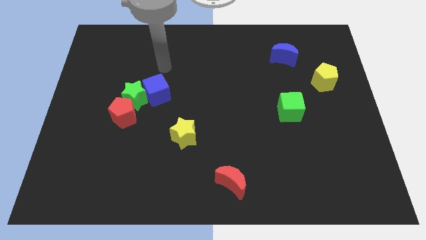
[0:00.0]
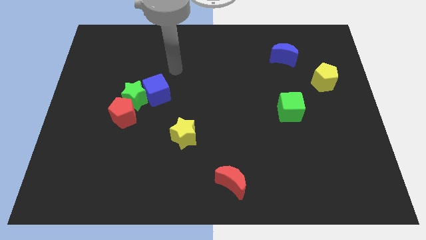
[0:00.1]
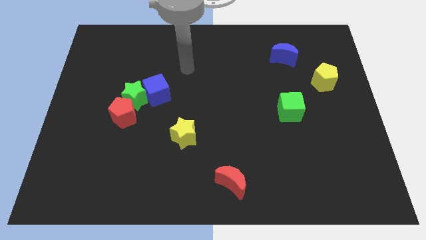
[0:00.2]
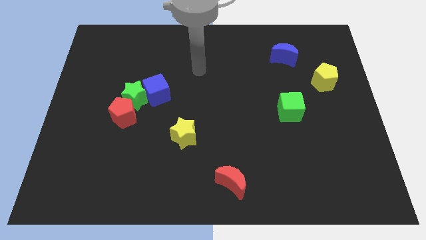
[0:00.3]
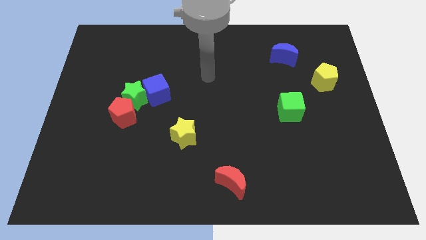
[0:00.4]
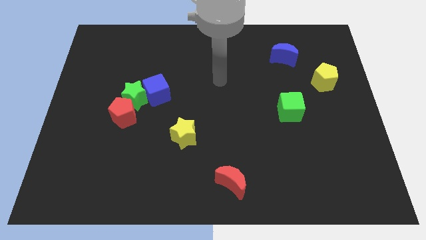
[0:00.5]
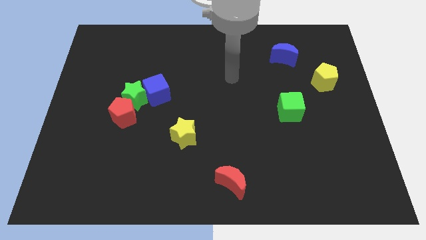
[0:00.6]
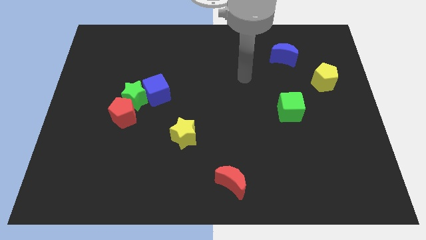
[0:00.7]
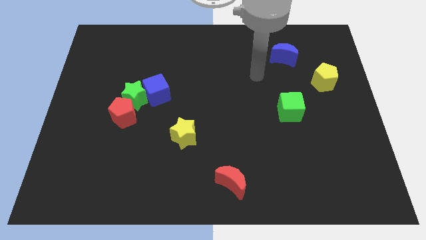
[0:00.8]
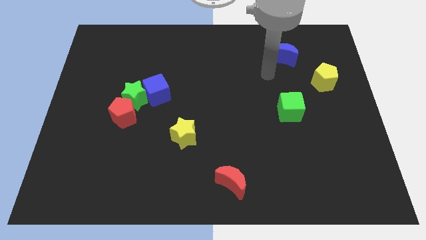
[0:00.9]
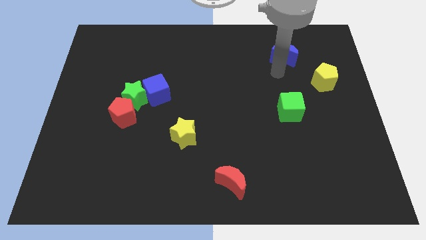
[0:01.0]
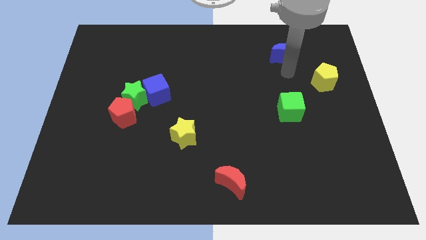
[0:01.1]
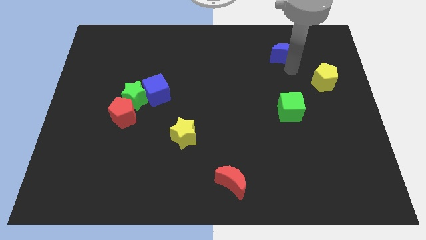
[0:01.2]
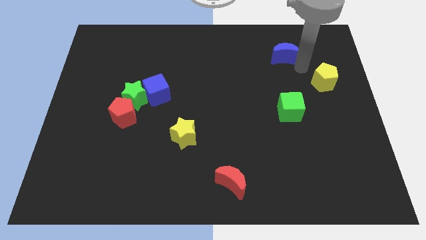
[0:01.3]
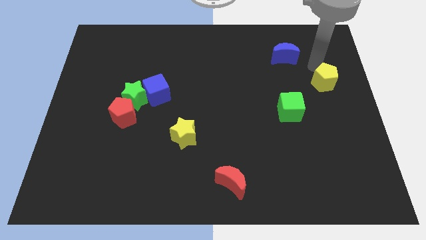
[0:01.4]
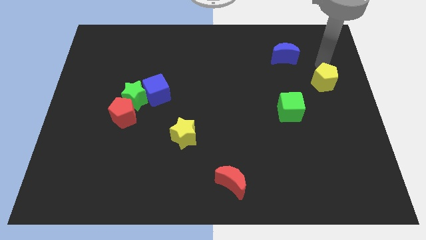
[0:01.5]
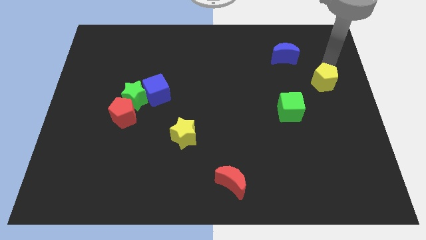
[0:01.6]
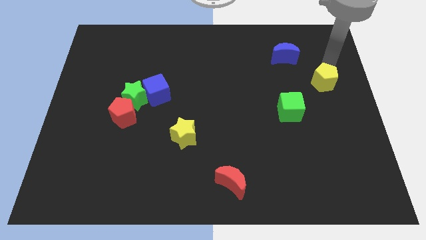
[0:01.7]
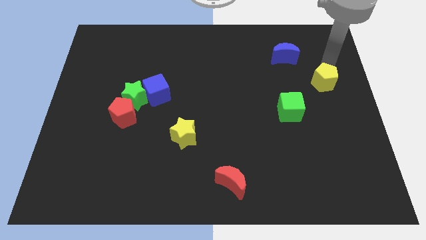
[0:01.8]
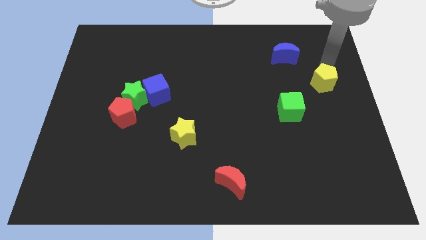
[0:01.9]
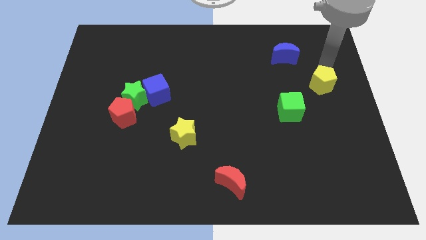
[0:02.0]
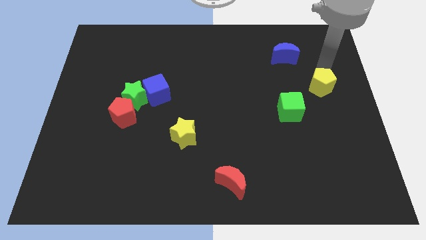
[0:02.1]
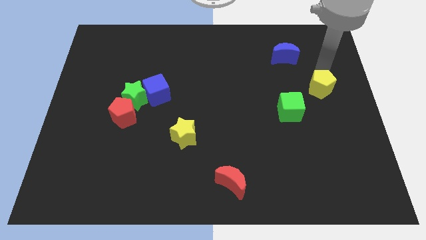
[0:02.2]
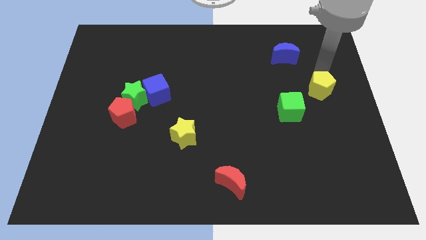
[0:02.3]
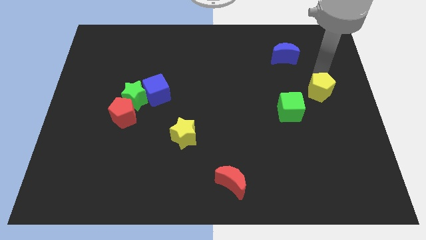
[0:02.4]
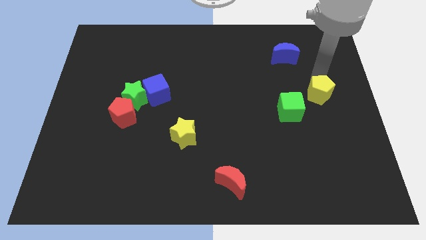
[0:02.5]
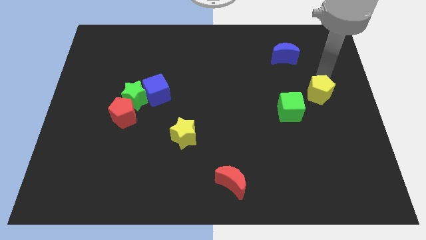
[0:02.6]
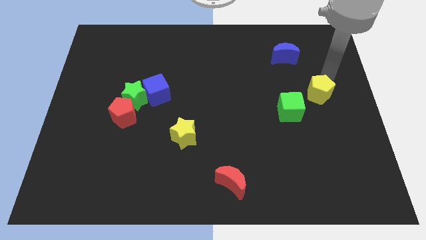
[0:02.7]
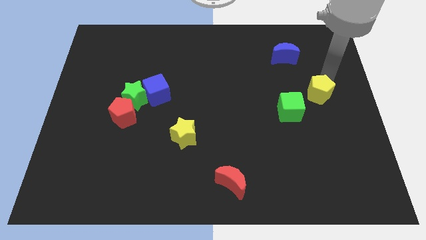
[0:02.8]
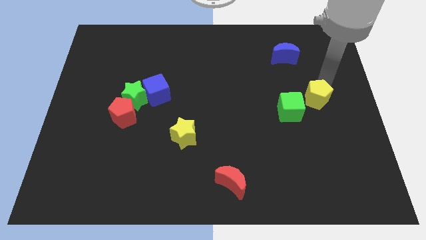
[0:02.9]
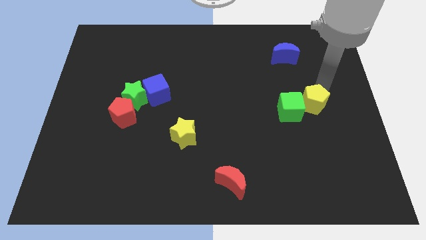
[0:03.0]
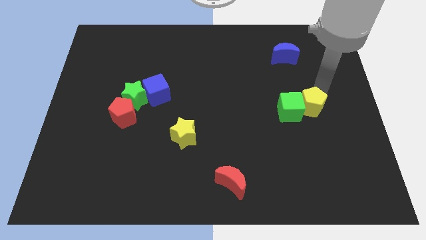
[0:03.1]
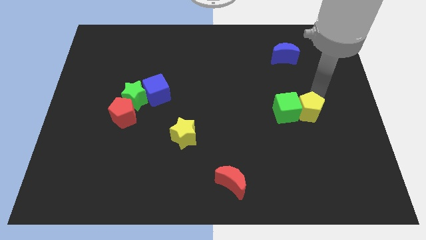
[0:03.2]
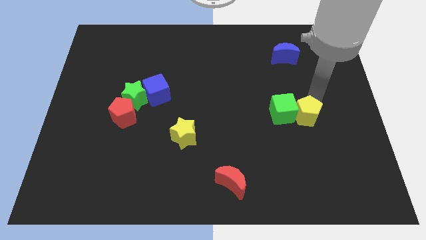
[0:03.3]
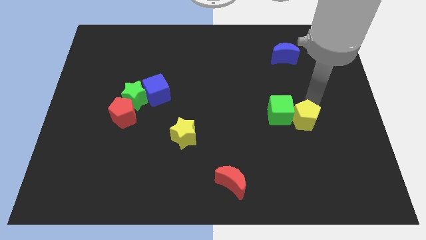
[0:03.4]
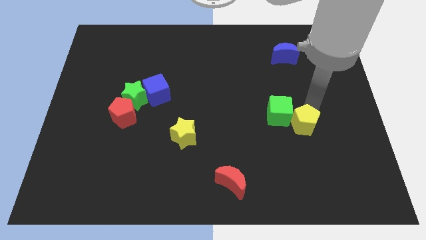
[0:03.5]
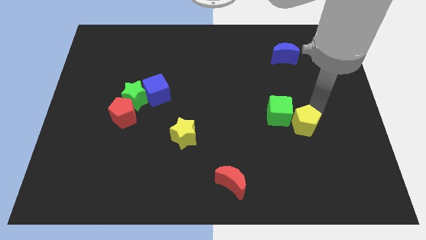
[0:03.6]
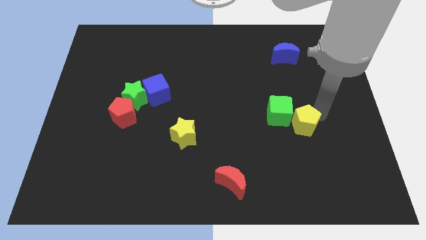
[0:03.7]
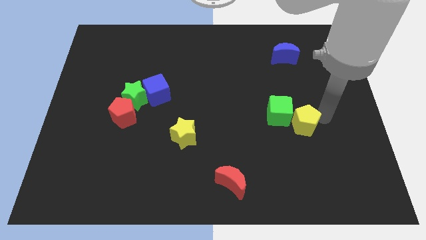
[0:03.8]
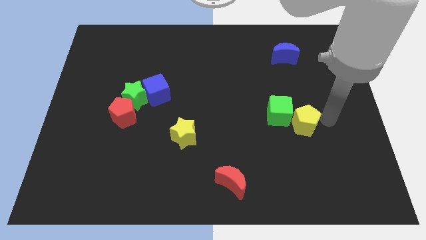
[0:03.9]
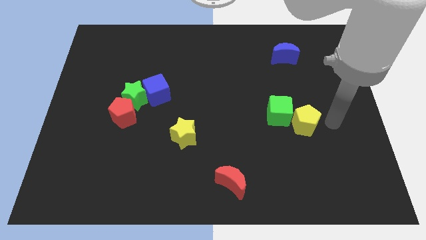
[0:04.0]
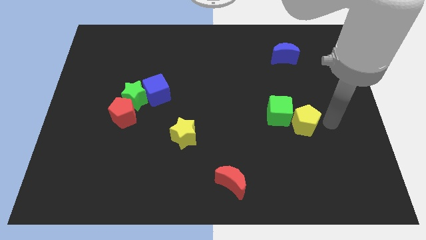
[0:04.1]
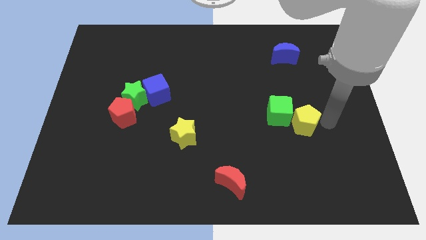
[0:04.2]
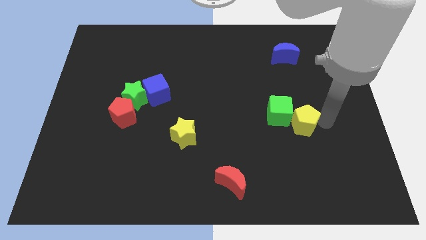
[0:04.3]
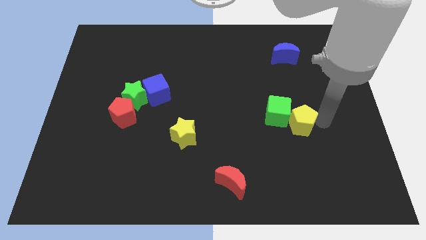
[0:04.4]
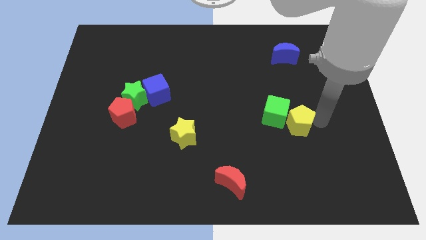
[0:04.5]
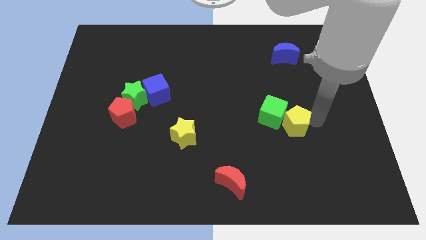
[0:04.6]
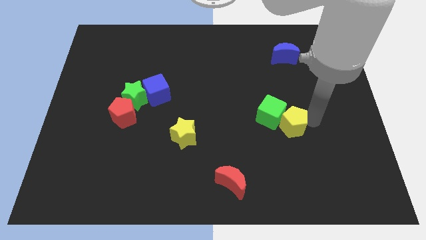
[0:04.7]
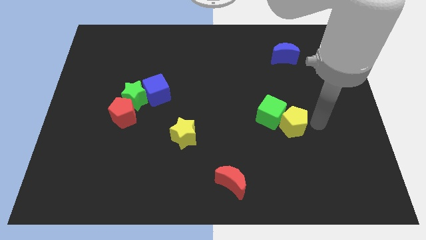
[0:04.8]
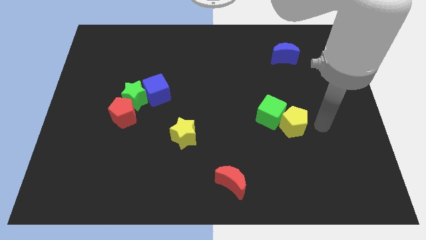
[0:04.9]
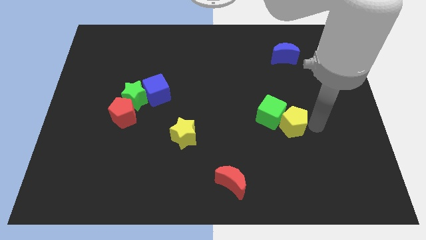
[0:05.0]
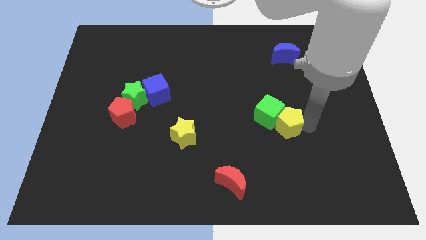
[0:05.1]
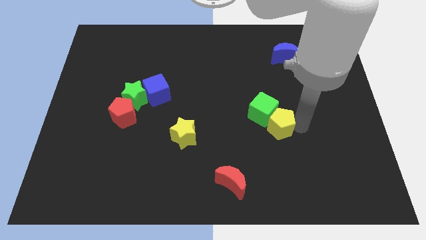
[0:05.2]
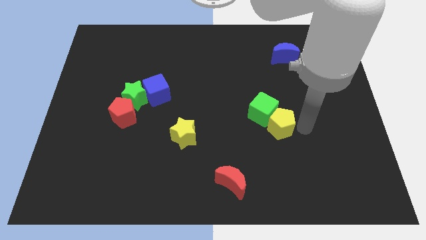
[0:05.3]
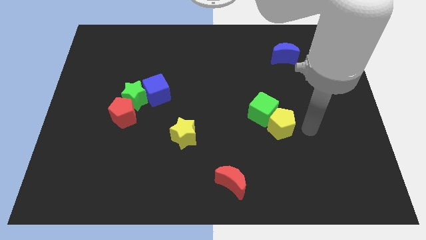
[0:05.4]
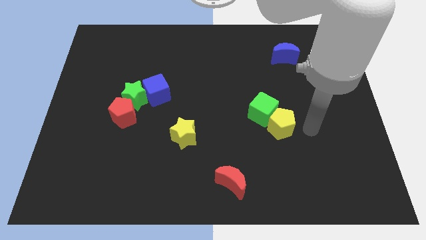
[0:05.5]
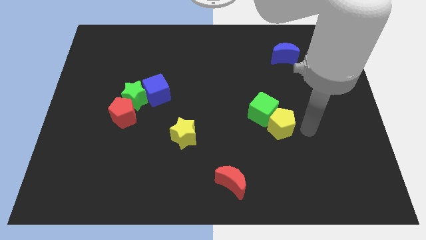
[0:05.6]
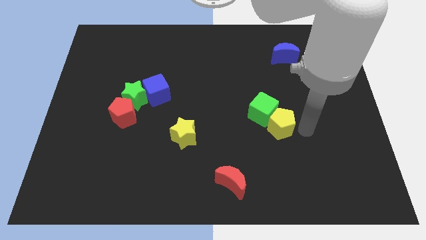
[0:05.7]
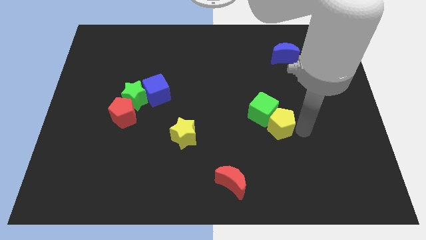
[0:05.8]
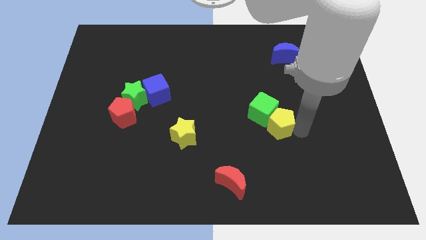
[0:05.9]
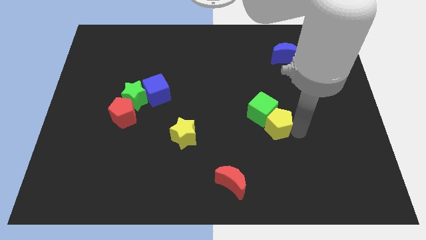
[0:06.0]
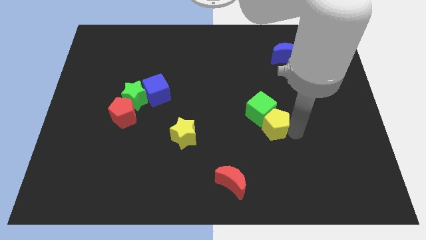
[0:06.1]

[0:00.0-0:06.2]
slide the yellow pentagon downwards and to the left diagonally

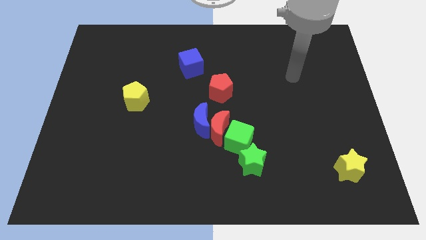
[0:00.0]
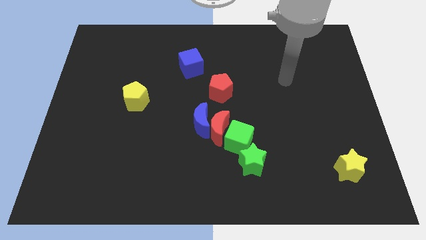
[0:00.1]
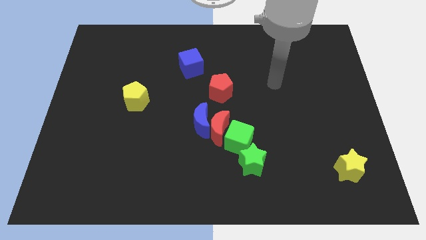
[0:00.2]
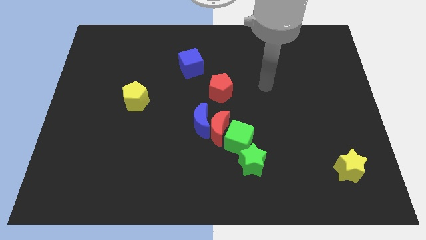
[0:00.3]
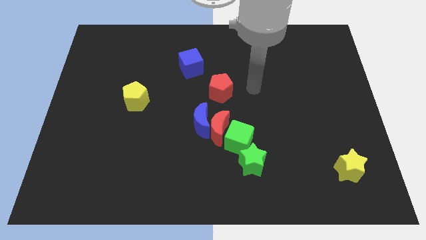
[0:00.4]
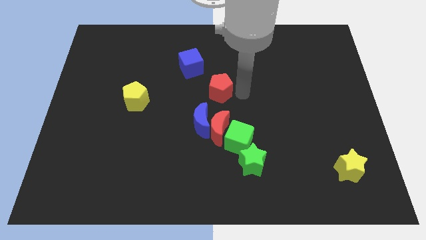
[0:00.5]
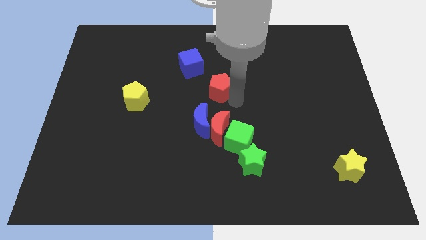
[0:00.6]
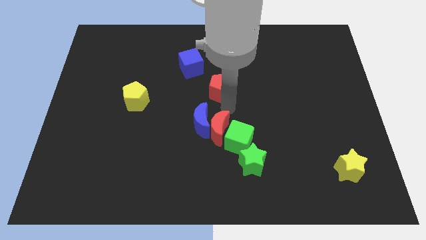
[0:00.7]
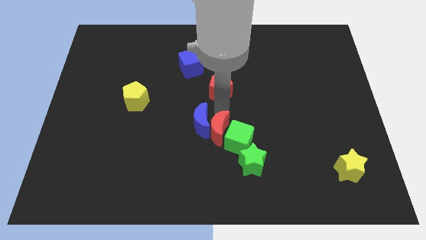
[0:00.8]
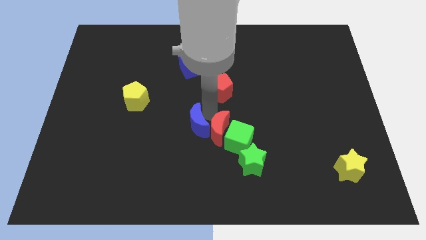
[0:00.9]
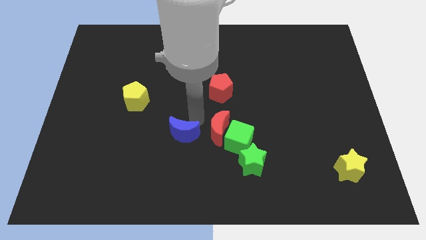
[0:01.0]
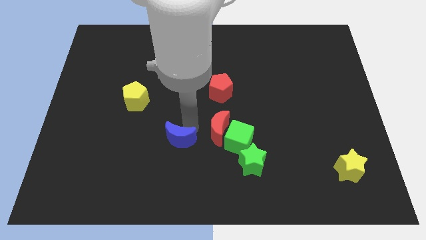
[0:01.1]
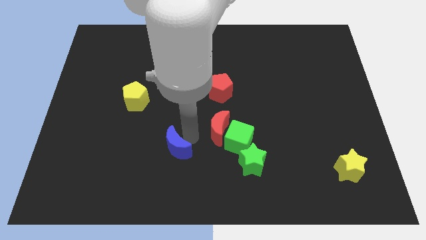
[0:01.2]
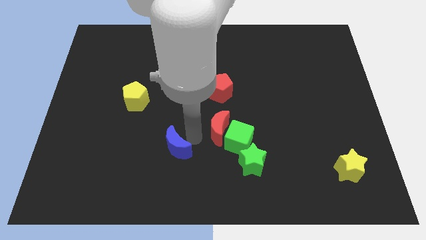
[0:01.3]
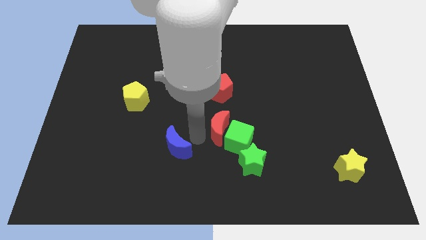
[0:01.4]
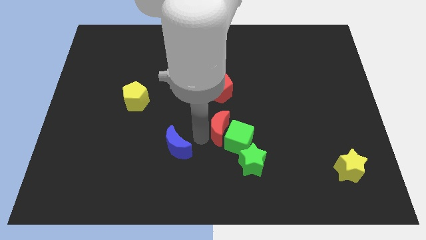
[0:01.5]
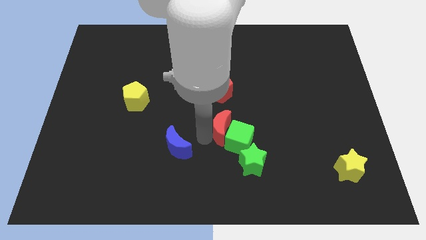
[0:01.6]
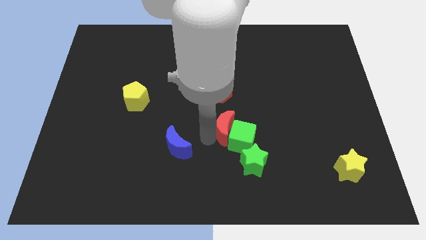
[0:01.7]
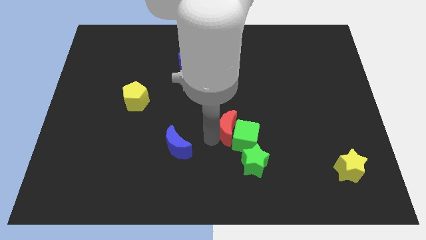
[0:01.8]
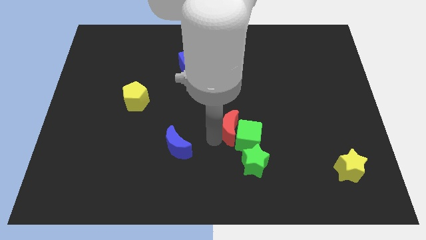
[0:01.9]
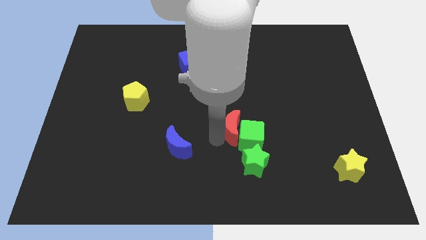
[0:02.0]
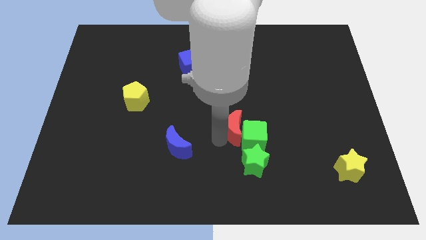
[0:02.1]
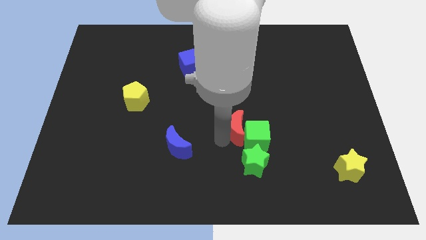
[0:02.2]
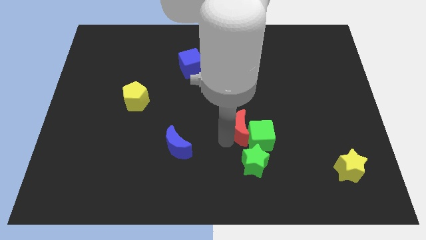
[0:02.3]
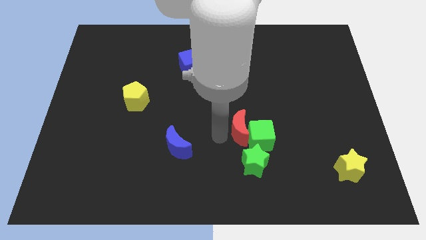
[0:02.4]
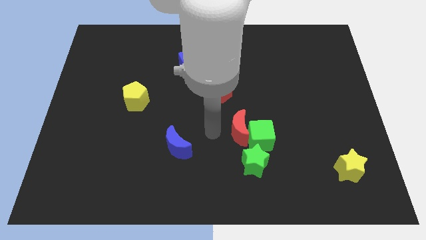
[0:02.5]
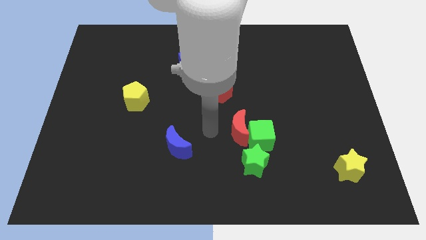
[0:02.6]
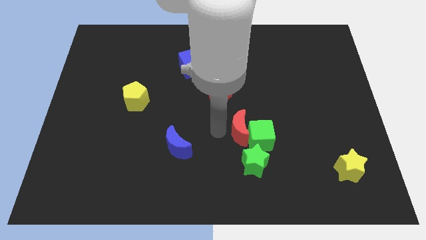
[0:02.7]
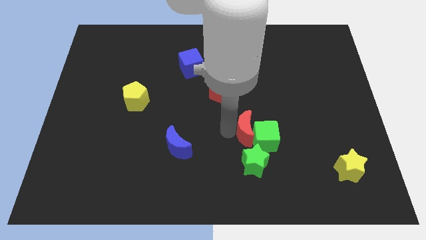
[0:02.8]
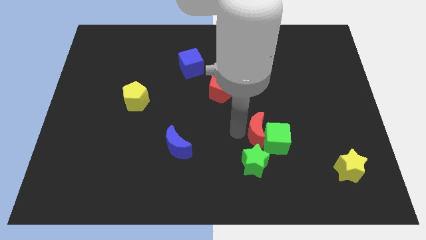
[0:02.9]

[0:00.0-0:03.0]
slightly move the red moon right
